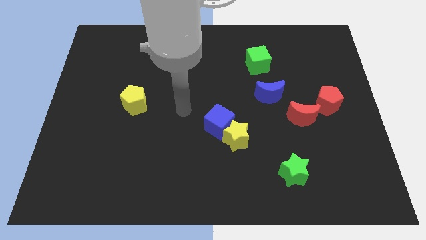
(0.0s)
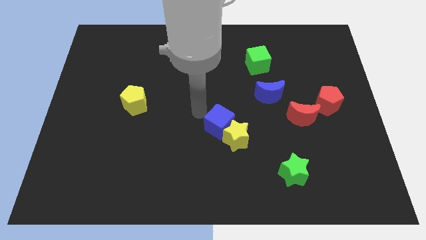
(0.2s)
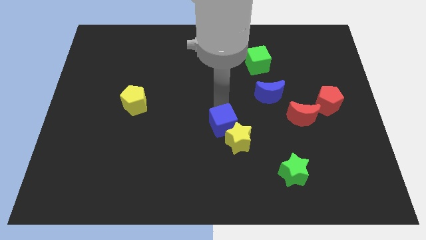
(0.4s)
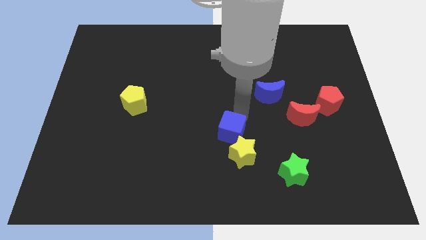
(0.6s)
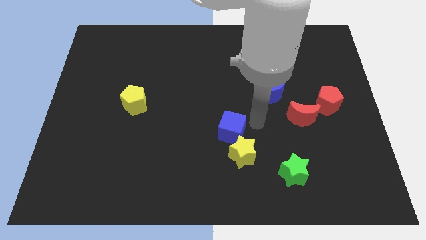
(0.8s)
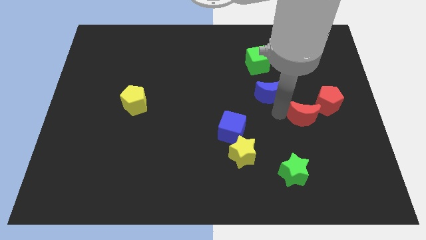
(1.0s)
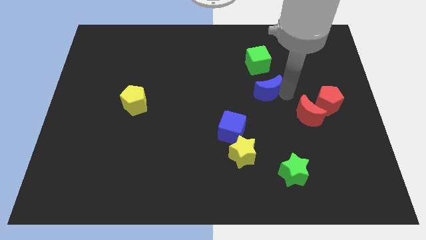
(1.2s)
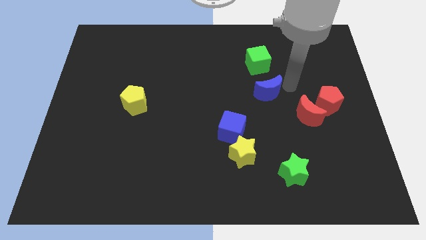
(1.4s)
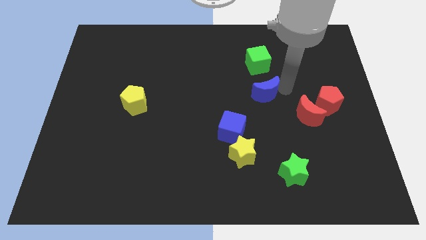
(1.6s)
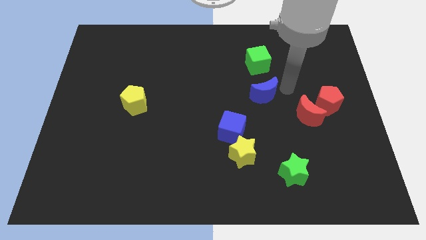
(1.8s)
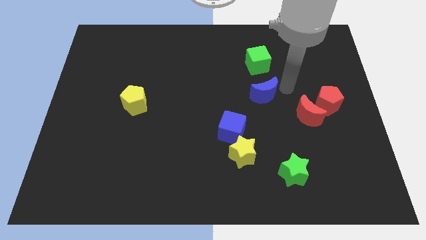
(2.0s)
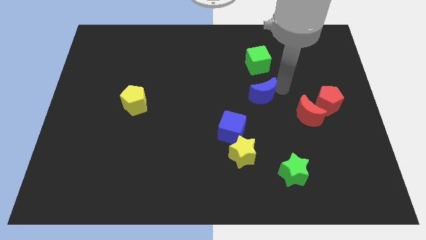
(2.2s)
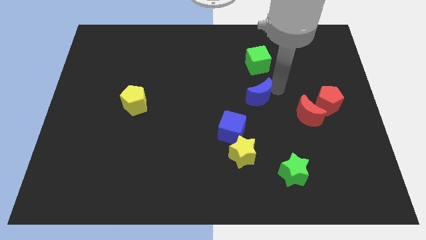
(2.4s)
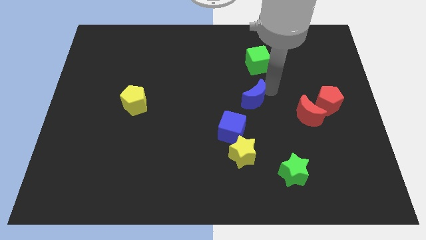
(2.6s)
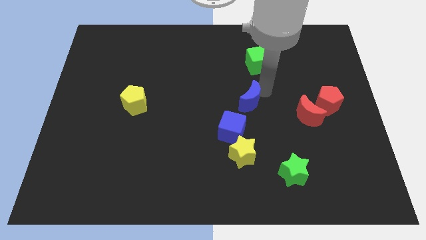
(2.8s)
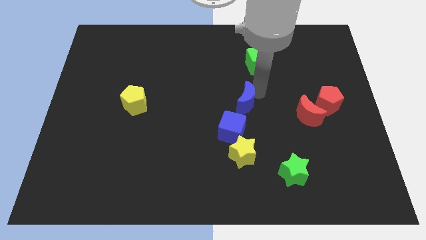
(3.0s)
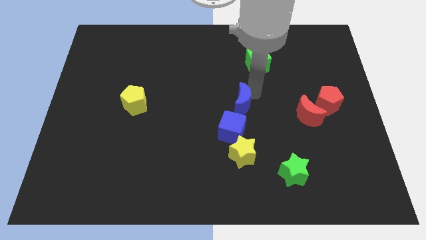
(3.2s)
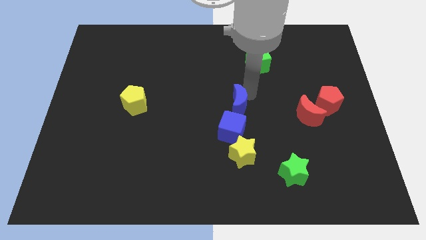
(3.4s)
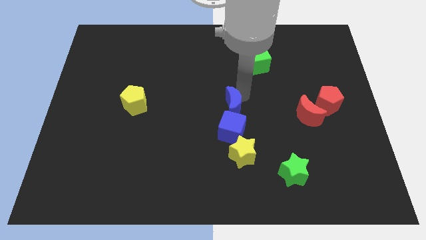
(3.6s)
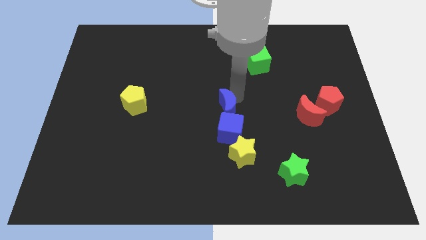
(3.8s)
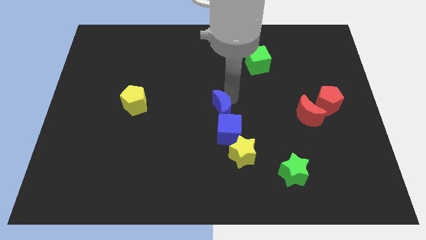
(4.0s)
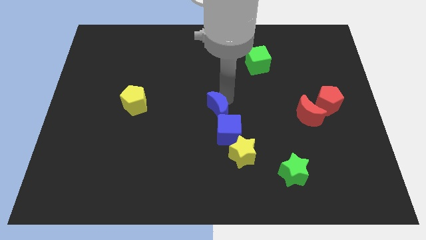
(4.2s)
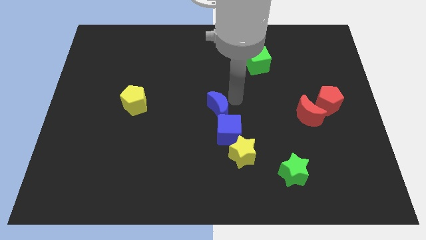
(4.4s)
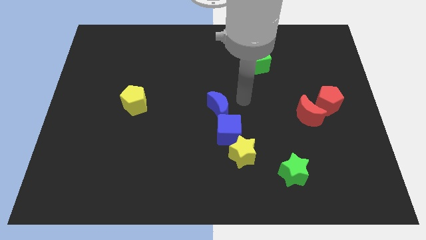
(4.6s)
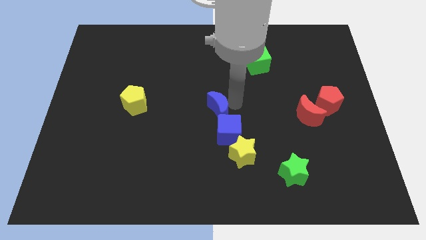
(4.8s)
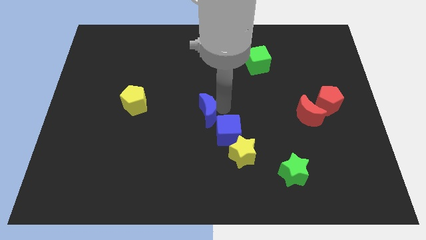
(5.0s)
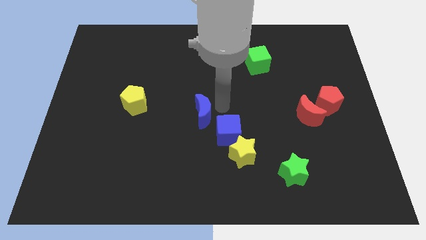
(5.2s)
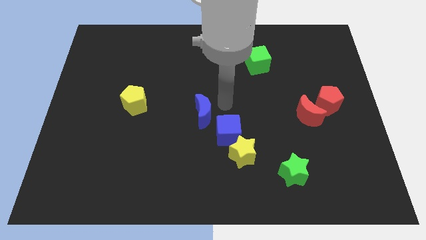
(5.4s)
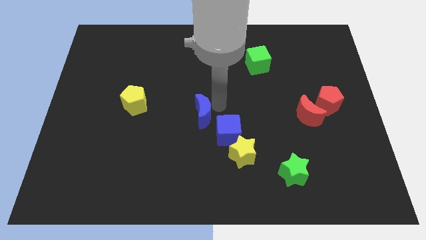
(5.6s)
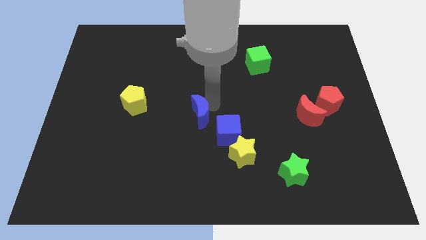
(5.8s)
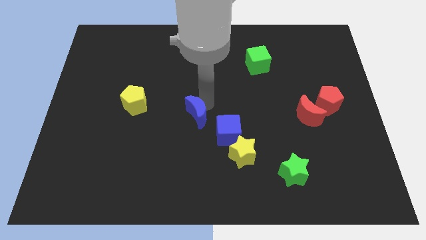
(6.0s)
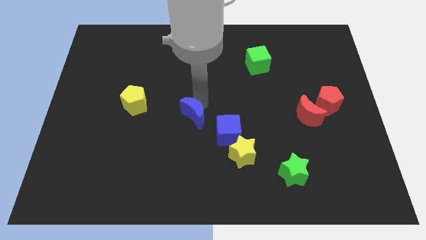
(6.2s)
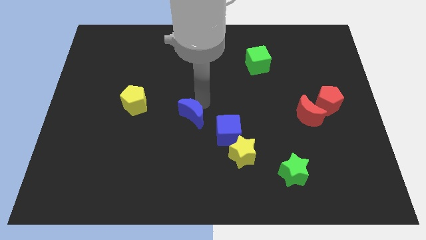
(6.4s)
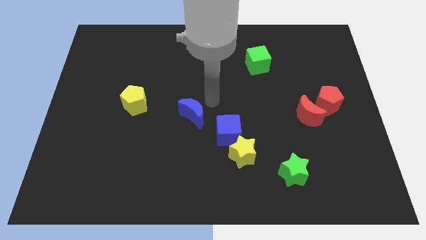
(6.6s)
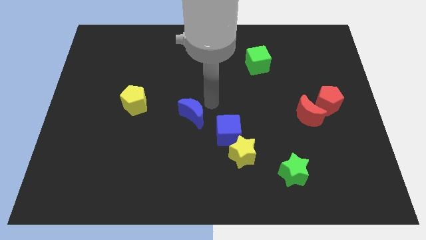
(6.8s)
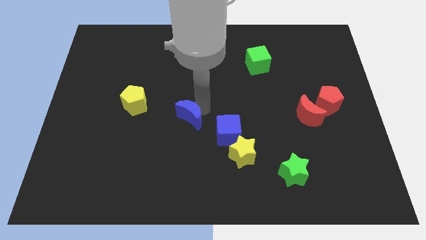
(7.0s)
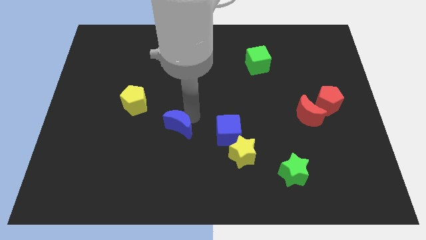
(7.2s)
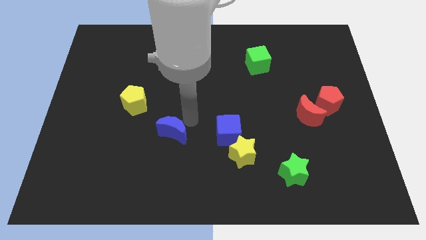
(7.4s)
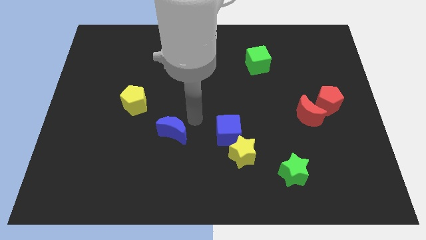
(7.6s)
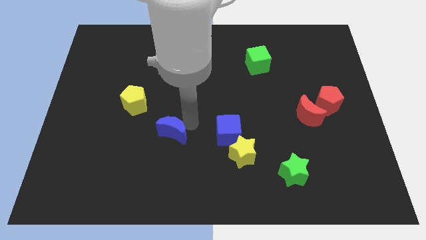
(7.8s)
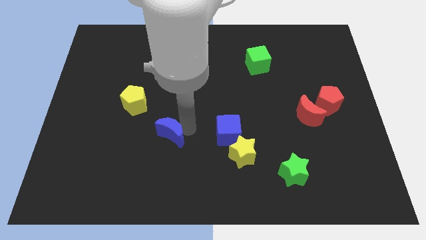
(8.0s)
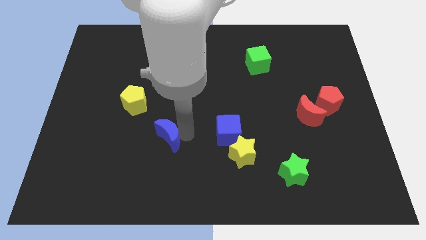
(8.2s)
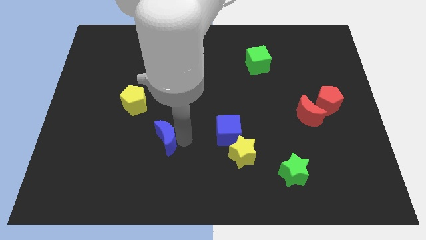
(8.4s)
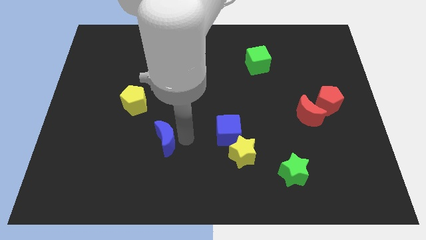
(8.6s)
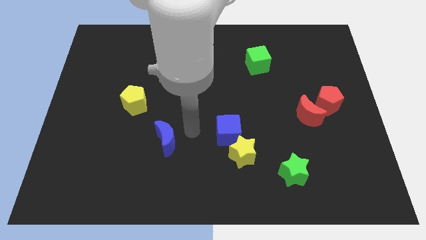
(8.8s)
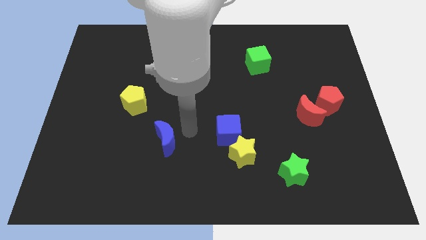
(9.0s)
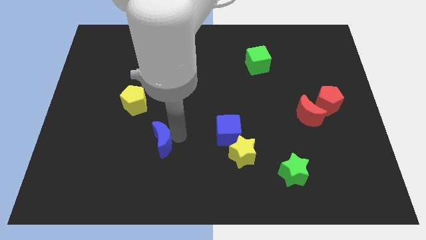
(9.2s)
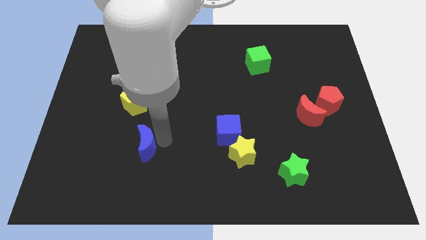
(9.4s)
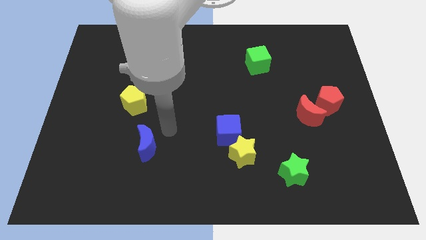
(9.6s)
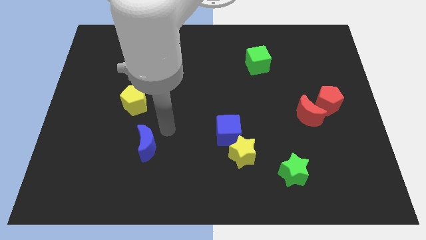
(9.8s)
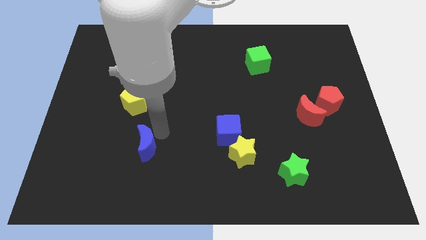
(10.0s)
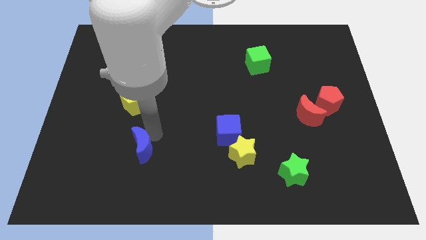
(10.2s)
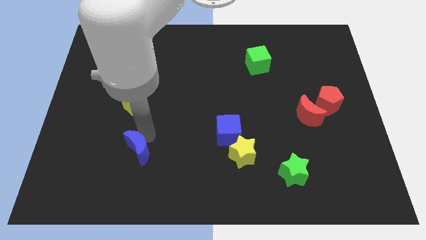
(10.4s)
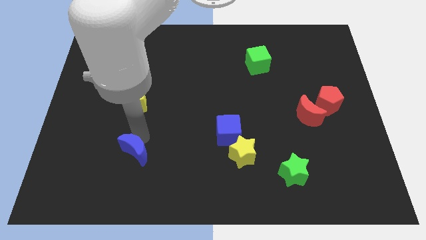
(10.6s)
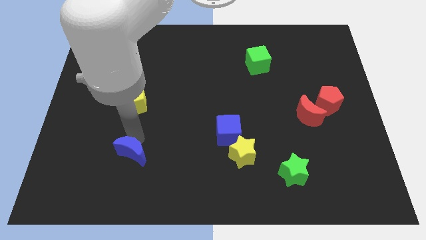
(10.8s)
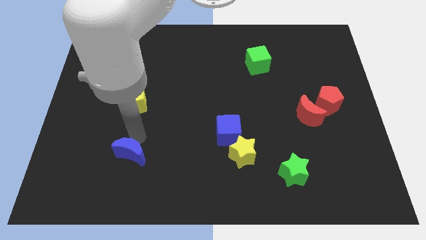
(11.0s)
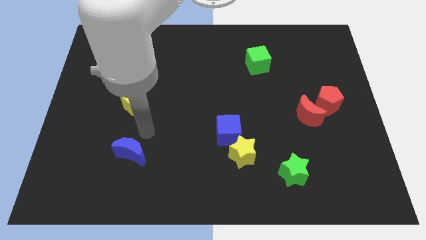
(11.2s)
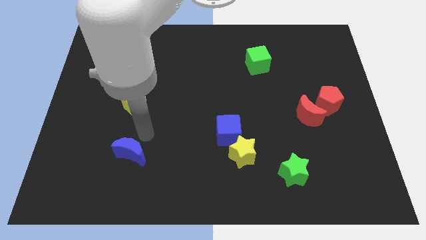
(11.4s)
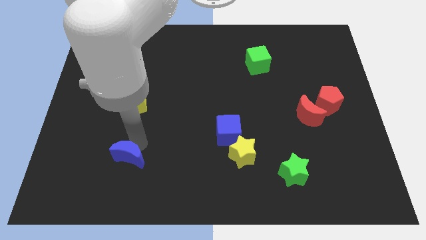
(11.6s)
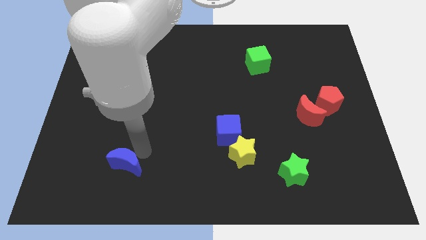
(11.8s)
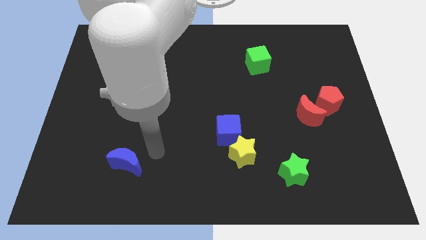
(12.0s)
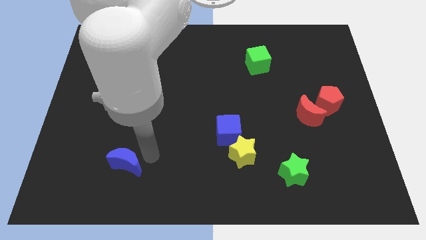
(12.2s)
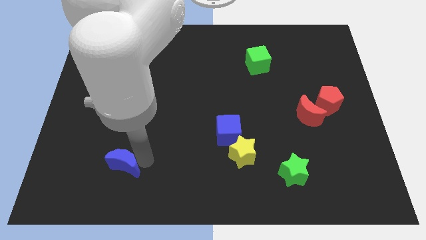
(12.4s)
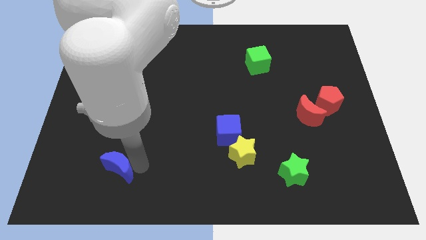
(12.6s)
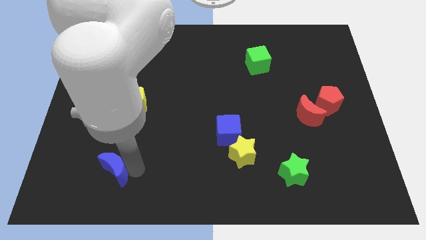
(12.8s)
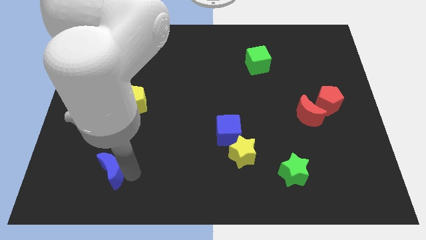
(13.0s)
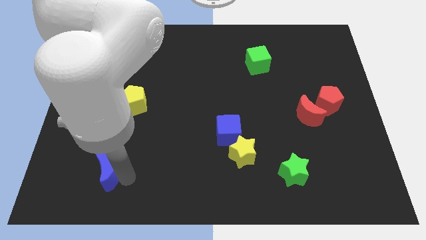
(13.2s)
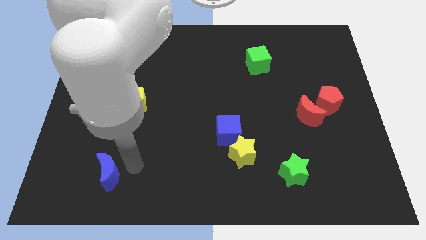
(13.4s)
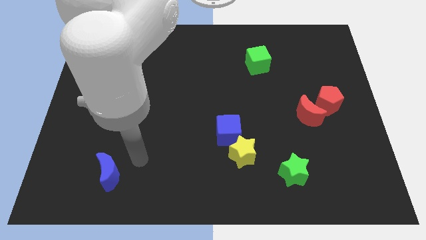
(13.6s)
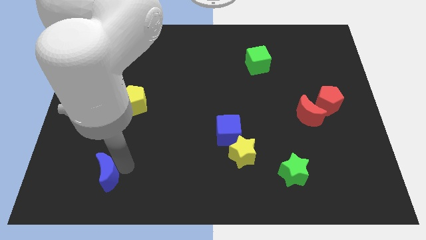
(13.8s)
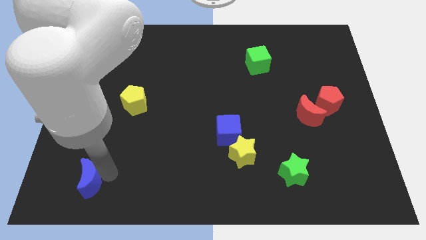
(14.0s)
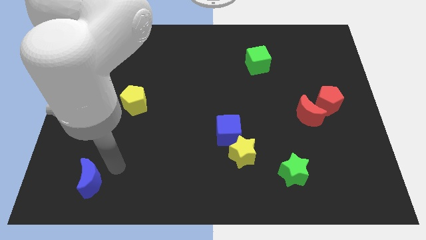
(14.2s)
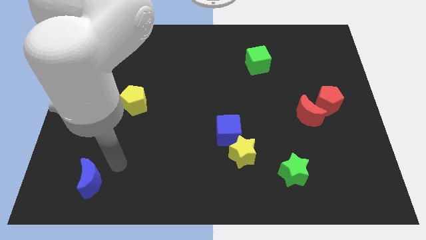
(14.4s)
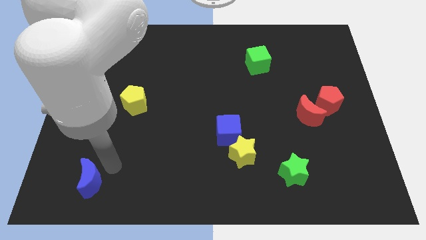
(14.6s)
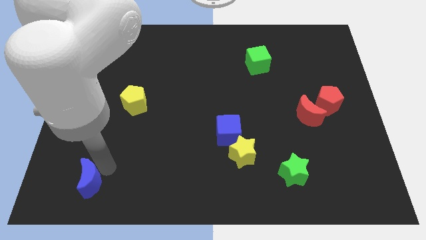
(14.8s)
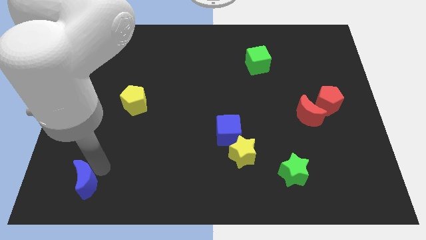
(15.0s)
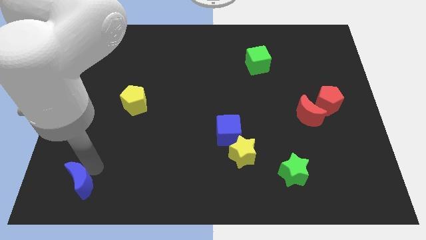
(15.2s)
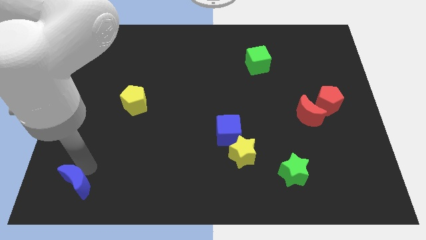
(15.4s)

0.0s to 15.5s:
move the blue moon to the lower left corner
